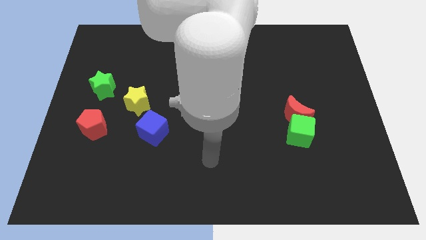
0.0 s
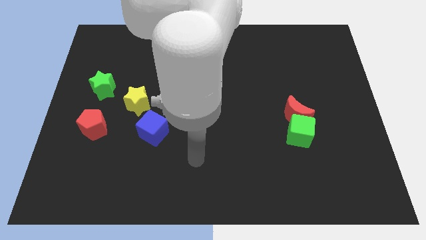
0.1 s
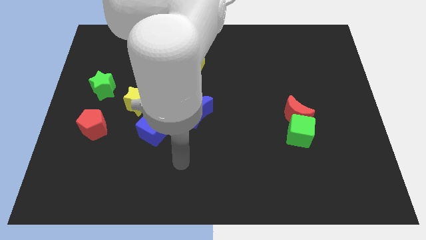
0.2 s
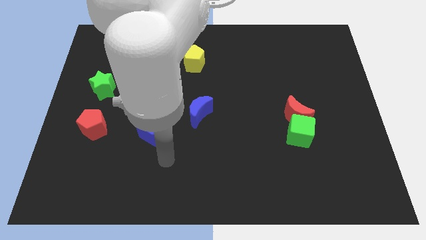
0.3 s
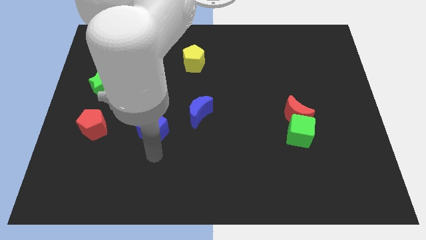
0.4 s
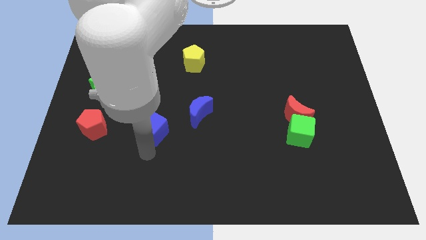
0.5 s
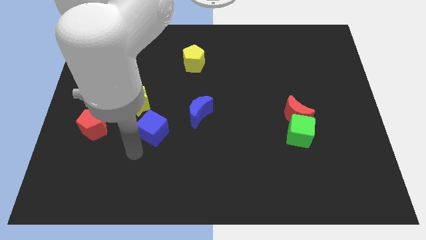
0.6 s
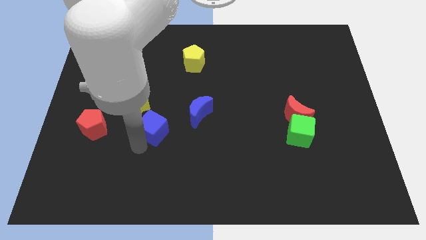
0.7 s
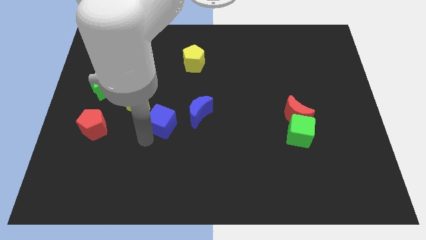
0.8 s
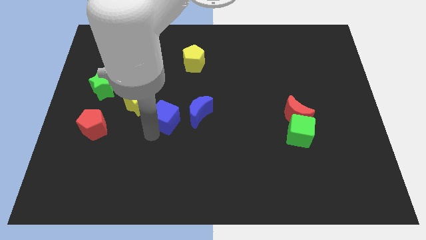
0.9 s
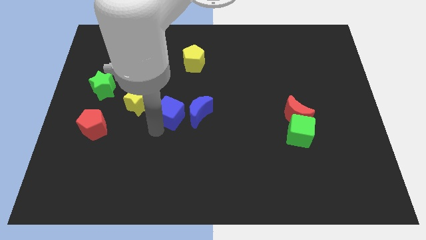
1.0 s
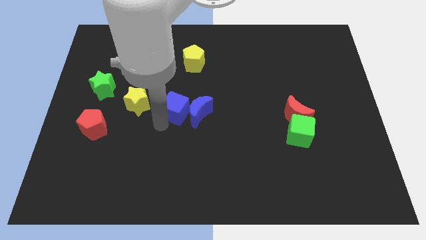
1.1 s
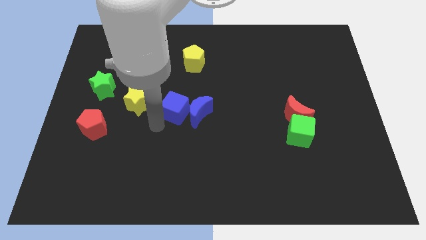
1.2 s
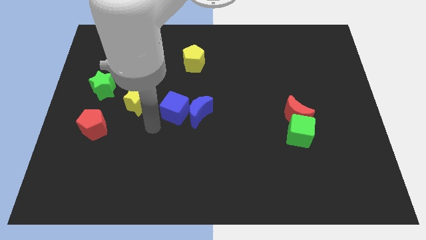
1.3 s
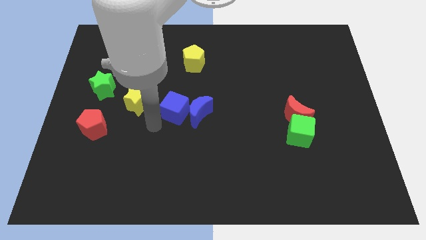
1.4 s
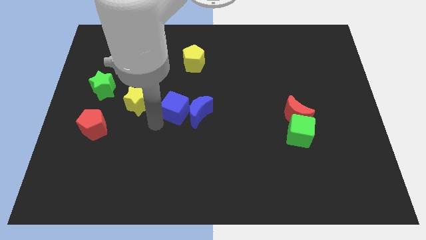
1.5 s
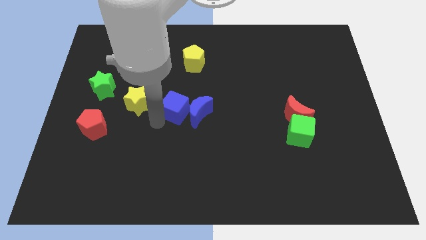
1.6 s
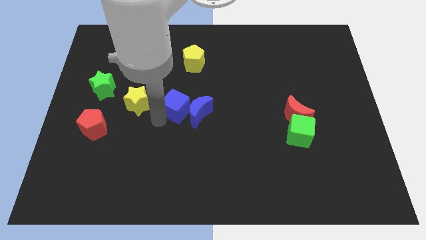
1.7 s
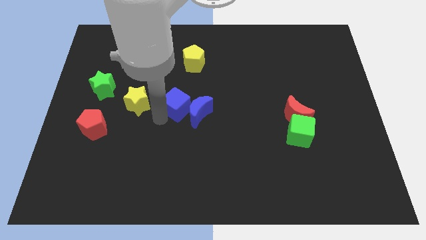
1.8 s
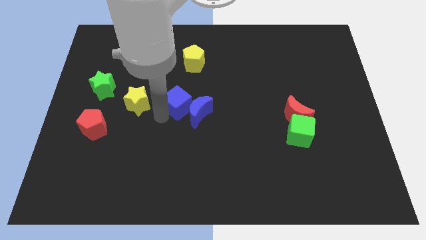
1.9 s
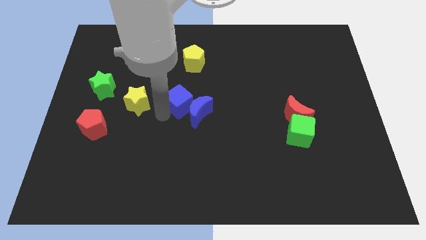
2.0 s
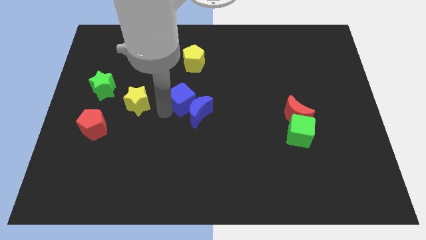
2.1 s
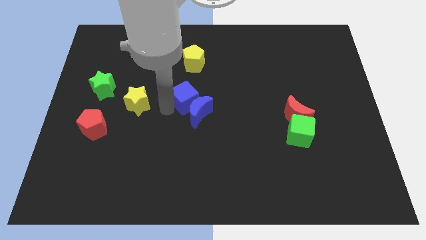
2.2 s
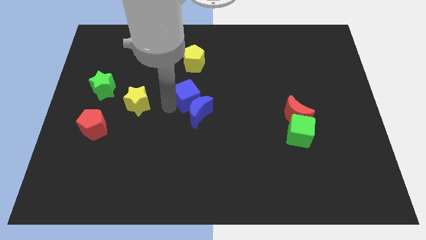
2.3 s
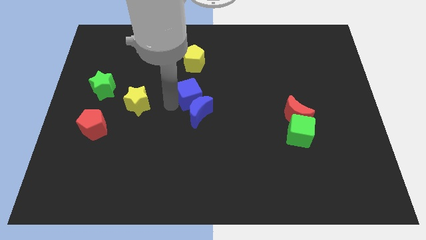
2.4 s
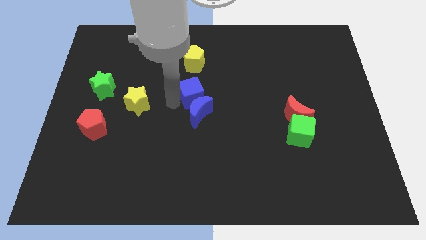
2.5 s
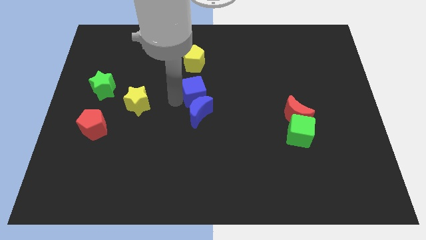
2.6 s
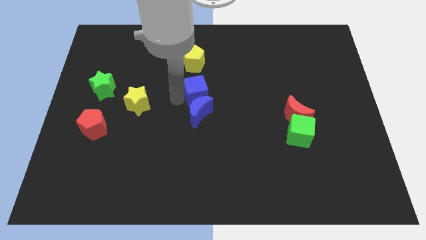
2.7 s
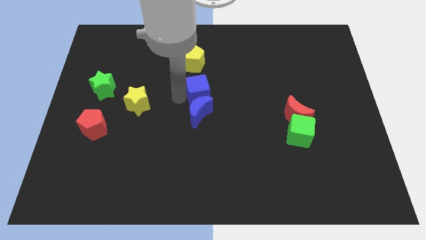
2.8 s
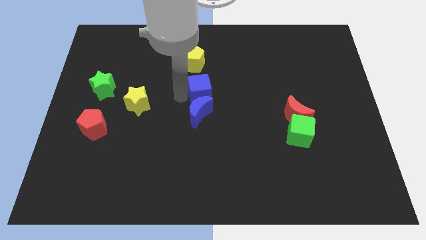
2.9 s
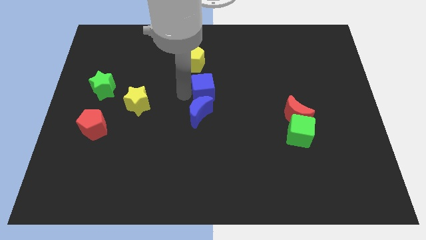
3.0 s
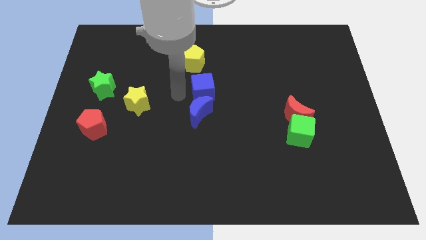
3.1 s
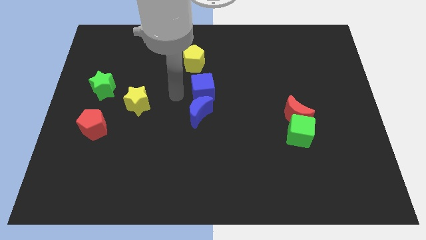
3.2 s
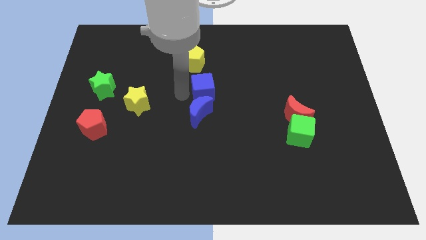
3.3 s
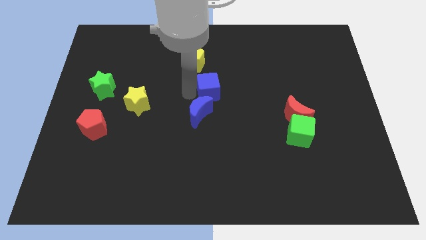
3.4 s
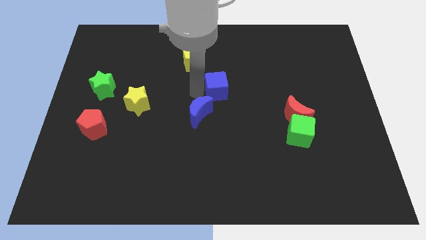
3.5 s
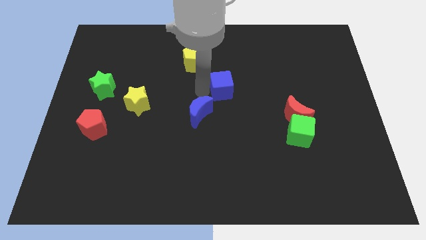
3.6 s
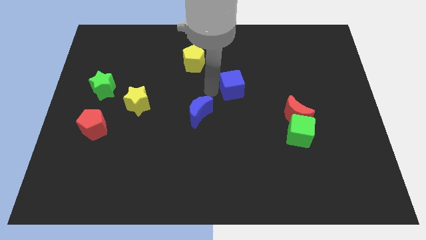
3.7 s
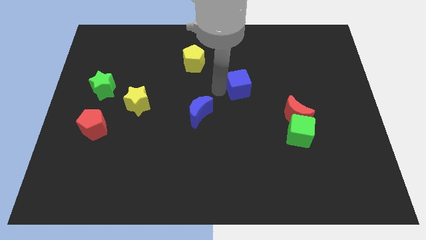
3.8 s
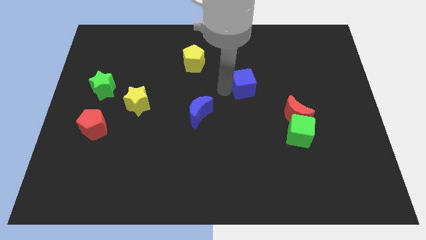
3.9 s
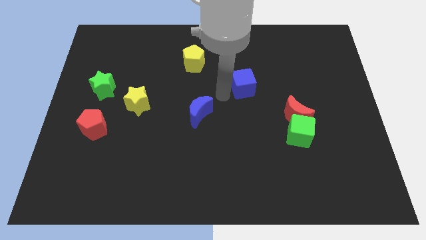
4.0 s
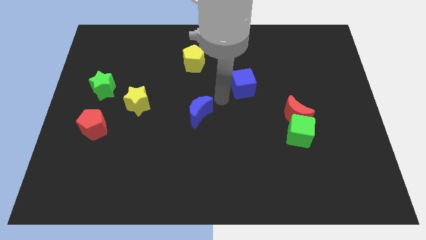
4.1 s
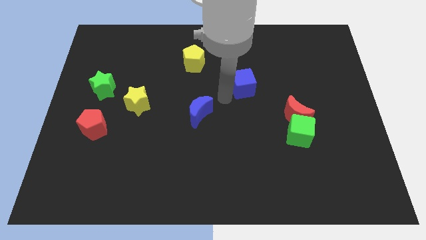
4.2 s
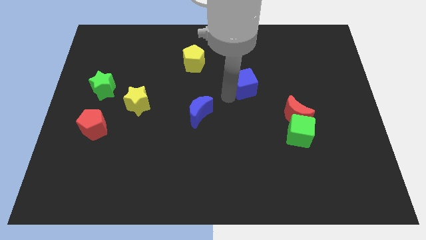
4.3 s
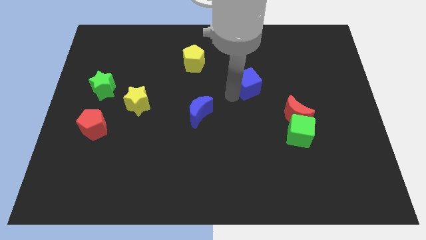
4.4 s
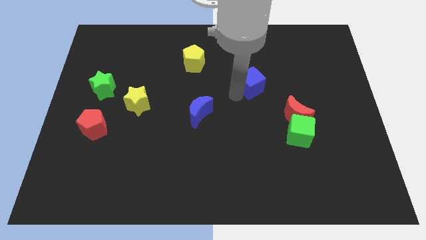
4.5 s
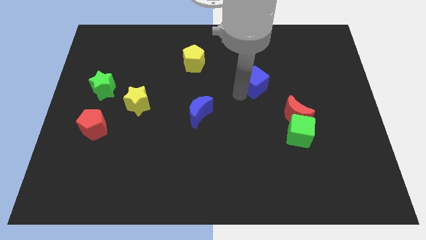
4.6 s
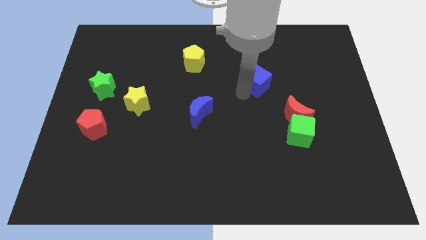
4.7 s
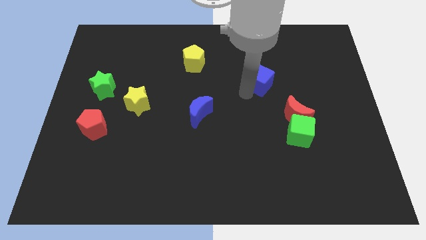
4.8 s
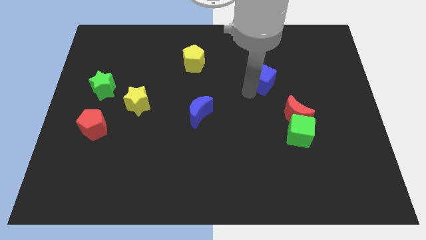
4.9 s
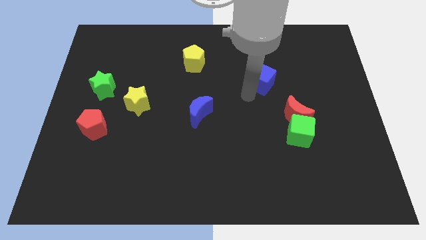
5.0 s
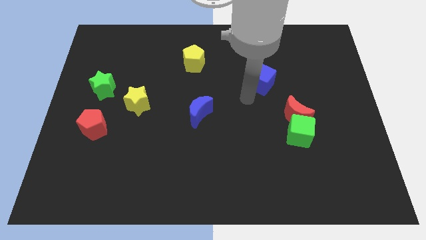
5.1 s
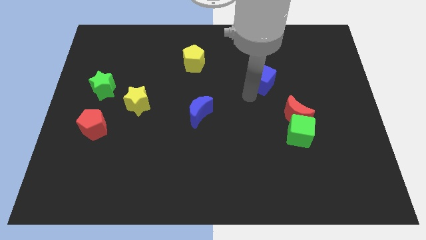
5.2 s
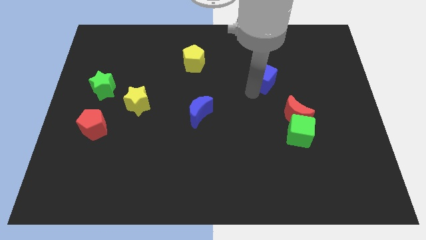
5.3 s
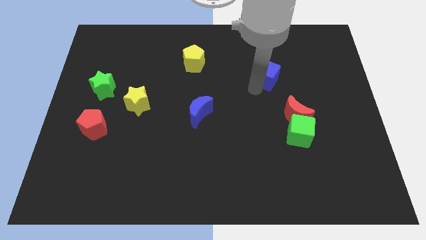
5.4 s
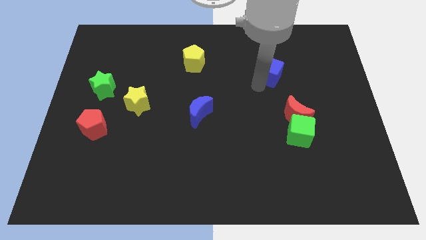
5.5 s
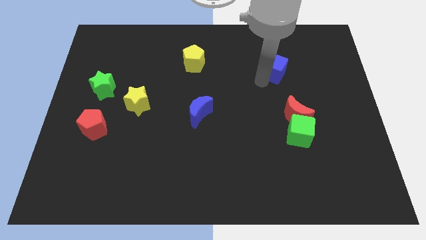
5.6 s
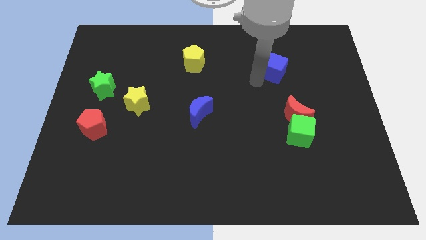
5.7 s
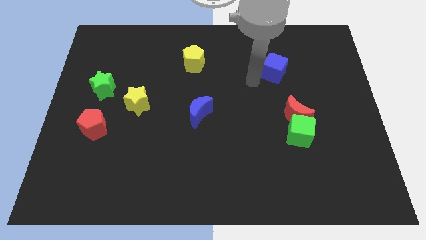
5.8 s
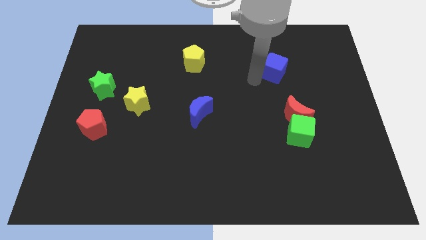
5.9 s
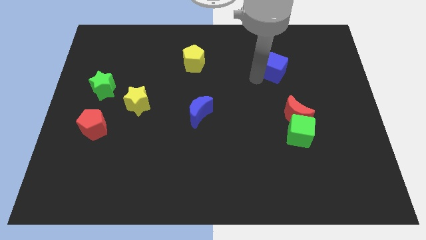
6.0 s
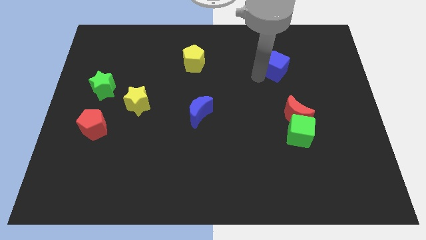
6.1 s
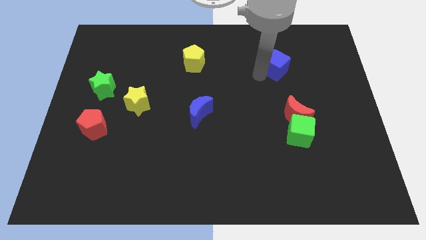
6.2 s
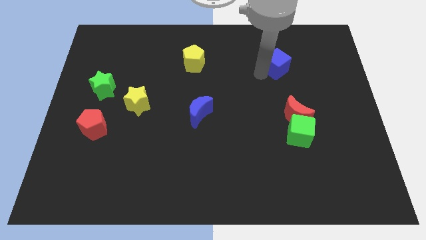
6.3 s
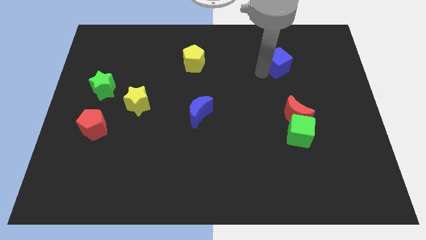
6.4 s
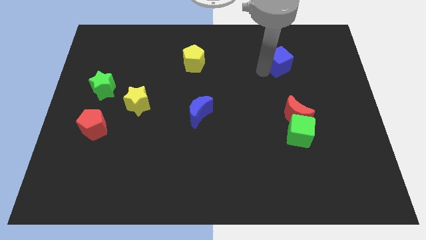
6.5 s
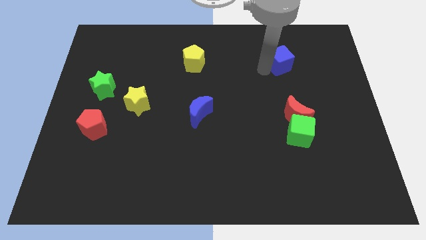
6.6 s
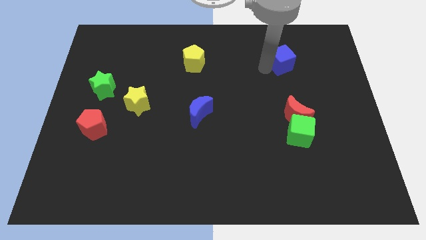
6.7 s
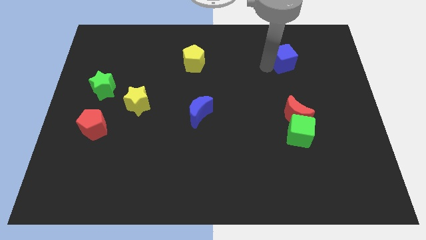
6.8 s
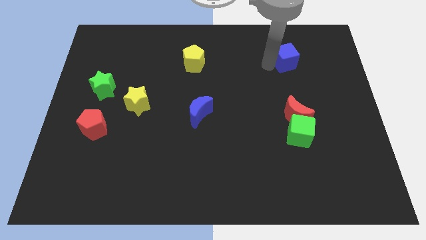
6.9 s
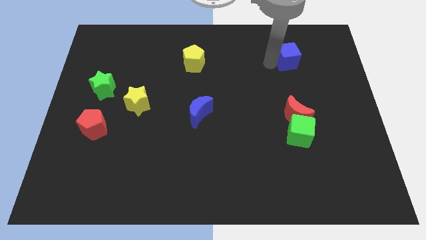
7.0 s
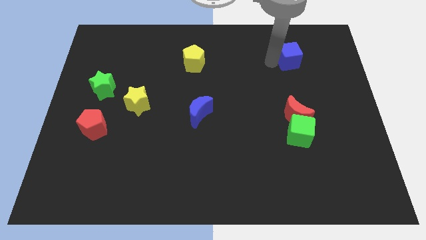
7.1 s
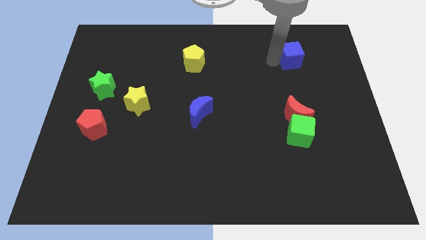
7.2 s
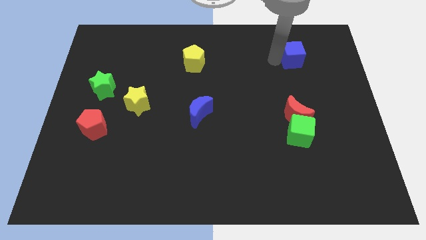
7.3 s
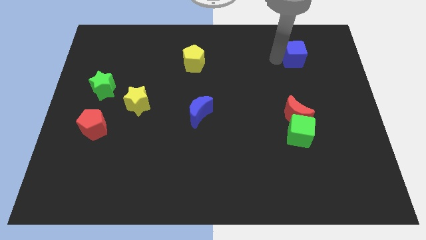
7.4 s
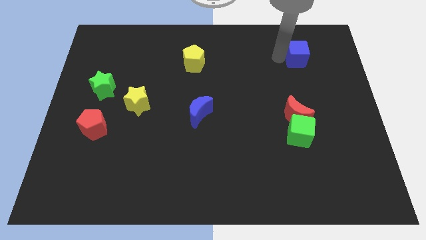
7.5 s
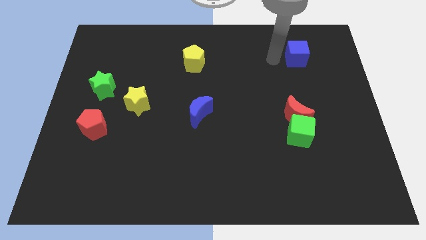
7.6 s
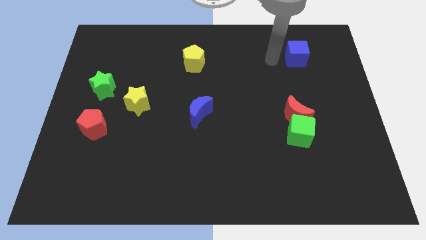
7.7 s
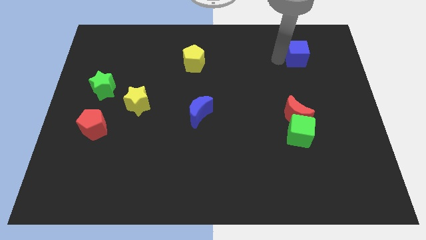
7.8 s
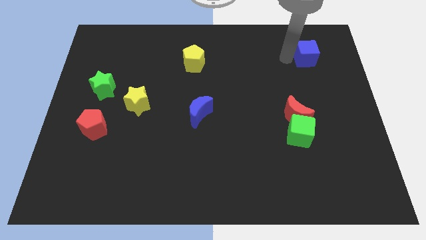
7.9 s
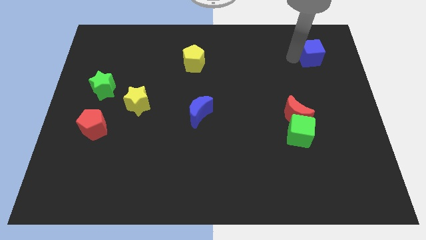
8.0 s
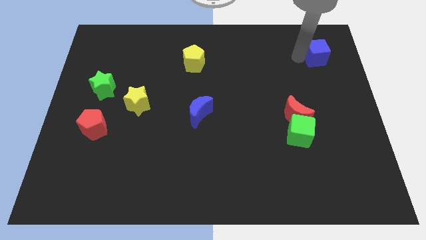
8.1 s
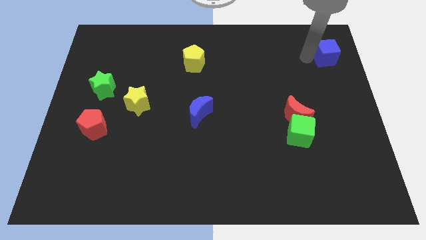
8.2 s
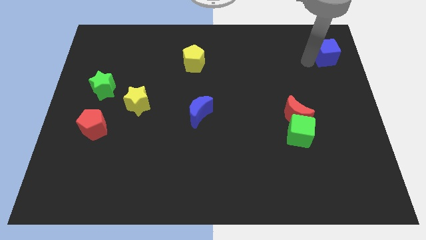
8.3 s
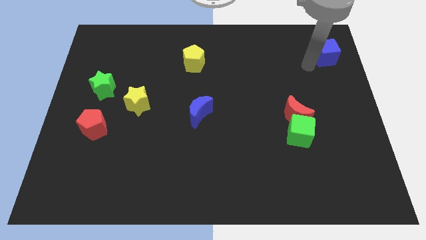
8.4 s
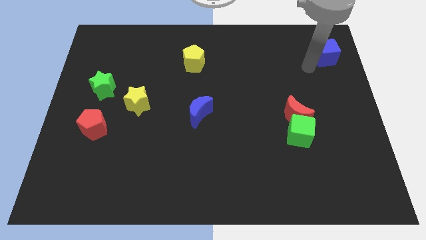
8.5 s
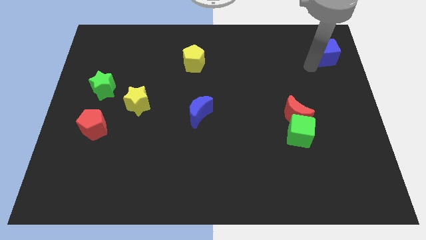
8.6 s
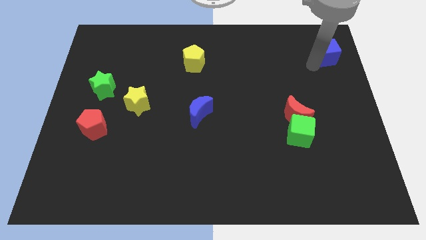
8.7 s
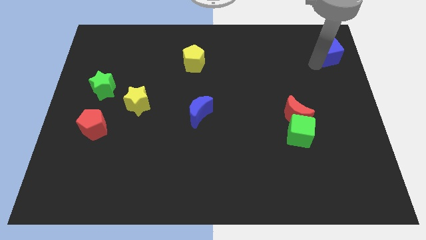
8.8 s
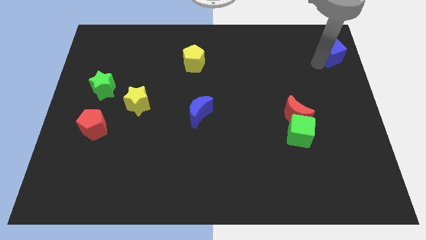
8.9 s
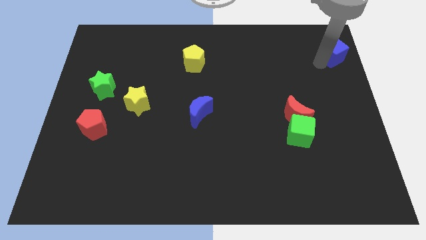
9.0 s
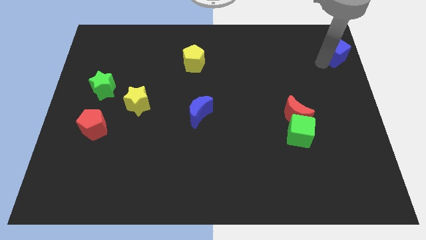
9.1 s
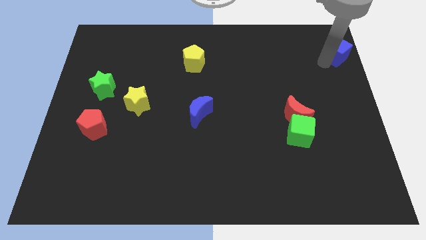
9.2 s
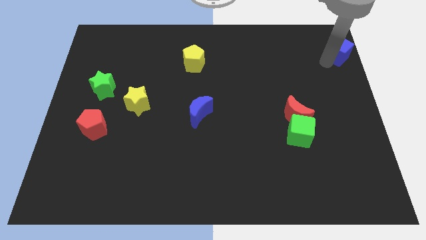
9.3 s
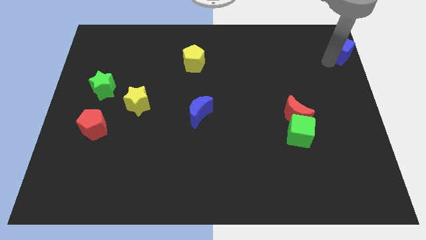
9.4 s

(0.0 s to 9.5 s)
push the blue cube to the top right
